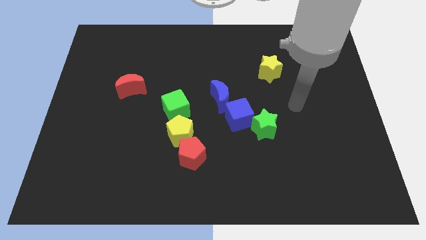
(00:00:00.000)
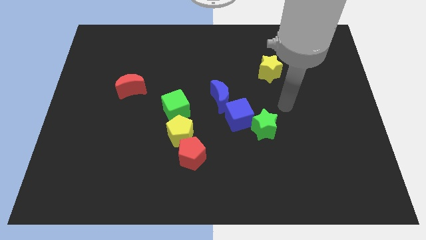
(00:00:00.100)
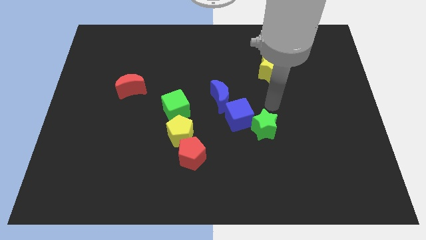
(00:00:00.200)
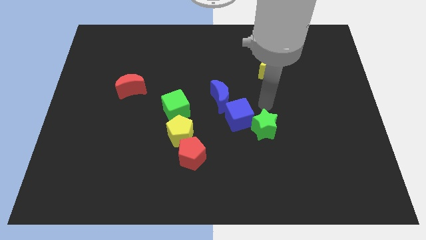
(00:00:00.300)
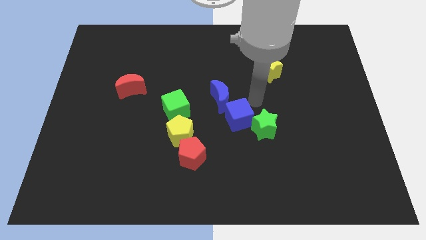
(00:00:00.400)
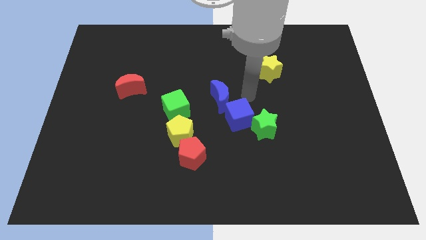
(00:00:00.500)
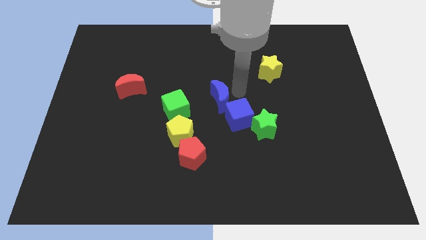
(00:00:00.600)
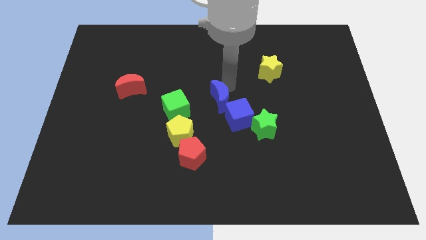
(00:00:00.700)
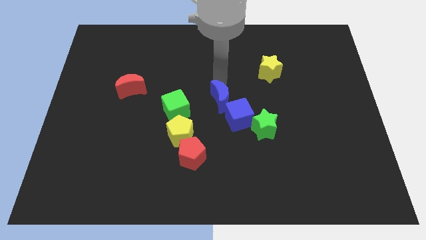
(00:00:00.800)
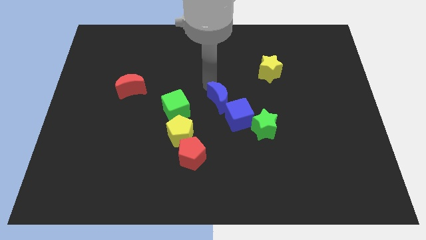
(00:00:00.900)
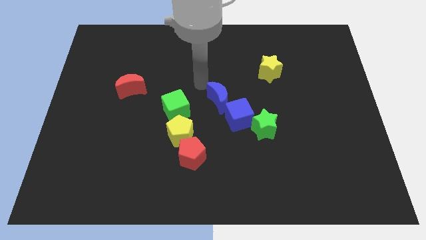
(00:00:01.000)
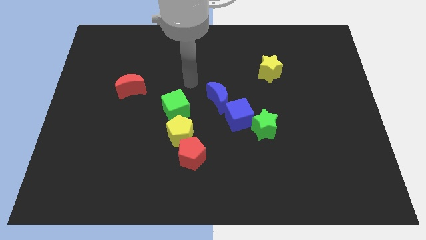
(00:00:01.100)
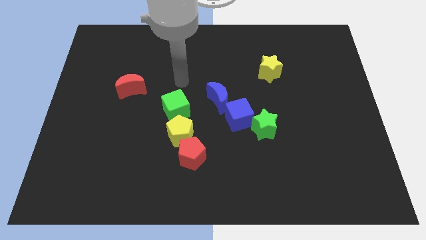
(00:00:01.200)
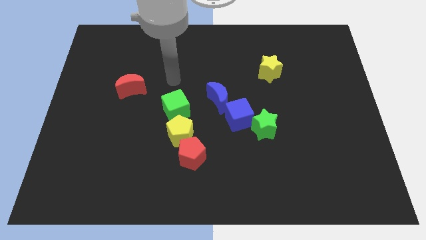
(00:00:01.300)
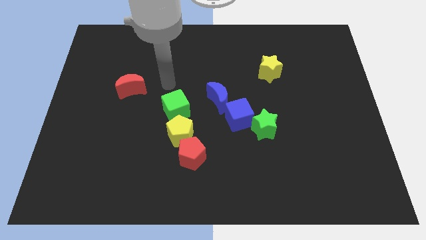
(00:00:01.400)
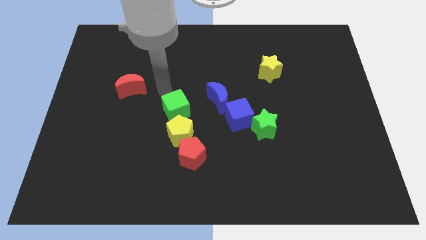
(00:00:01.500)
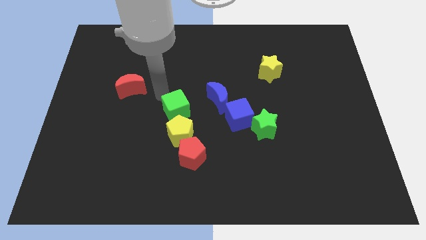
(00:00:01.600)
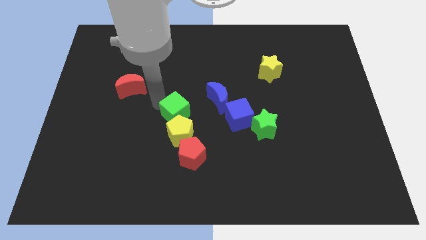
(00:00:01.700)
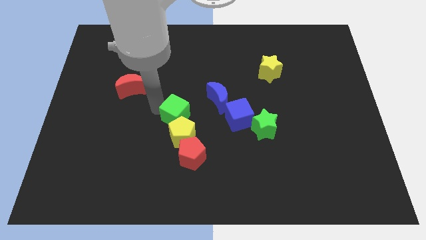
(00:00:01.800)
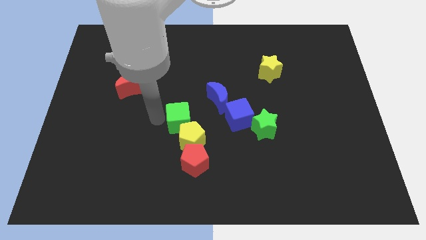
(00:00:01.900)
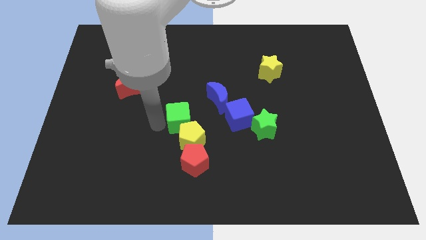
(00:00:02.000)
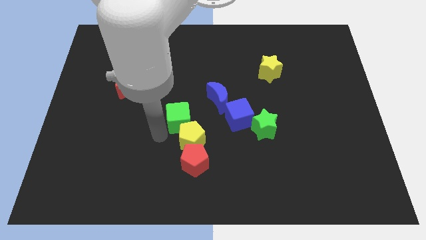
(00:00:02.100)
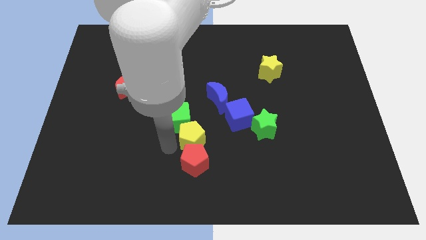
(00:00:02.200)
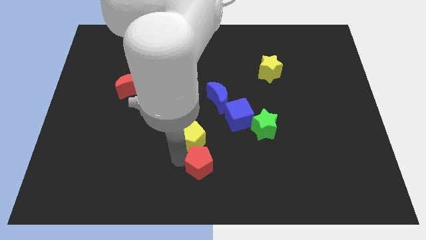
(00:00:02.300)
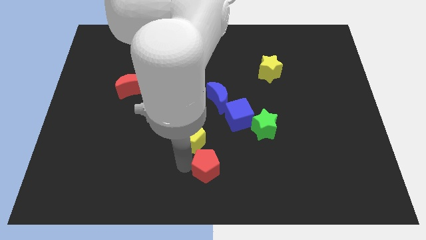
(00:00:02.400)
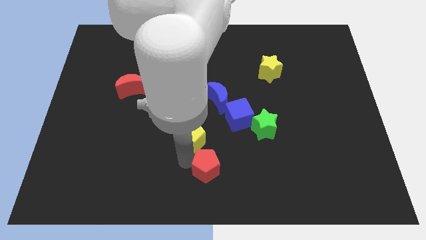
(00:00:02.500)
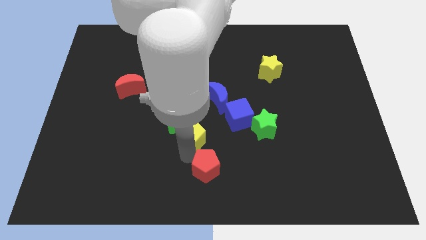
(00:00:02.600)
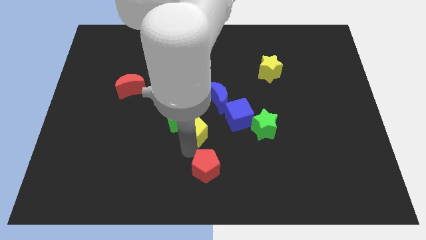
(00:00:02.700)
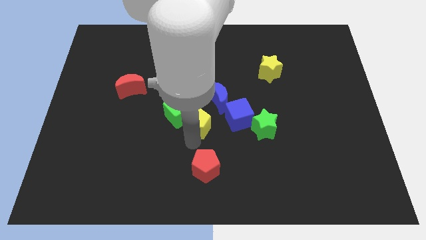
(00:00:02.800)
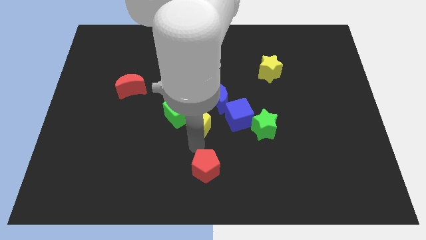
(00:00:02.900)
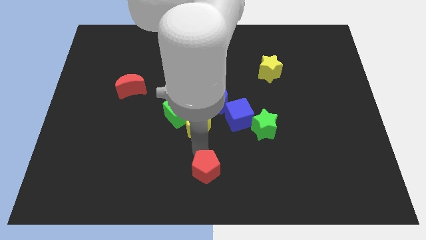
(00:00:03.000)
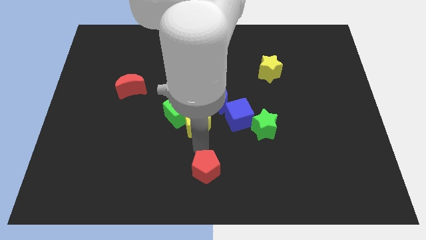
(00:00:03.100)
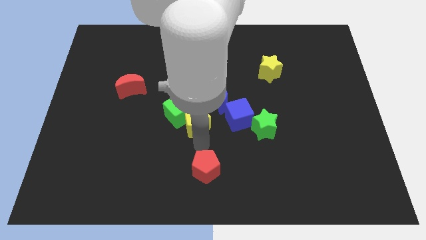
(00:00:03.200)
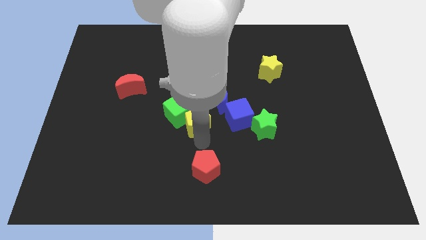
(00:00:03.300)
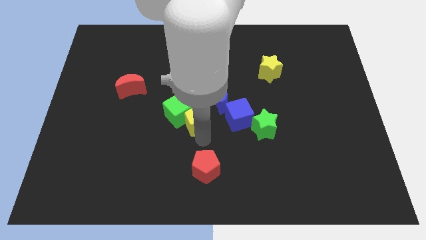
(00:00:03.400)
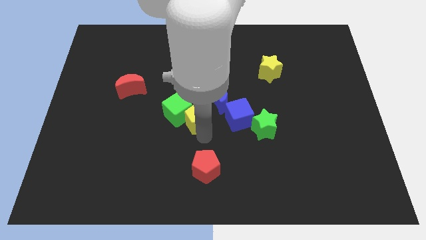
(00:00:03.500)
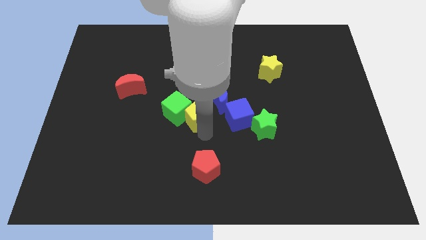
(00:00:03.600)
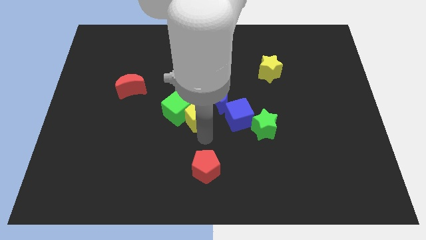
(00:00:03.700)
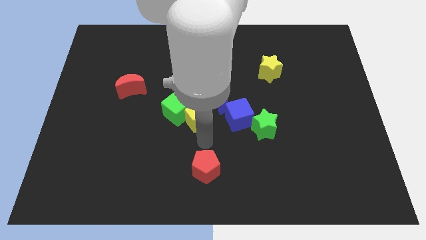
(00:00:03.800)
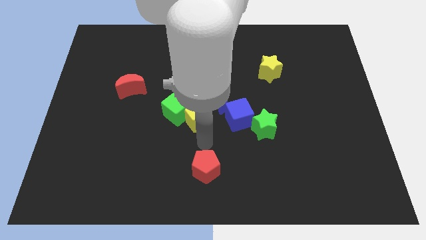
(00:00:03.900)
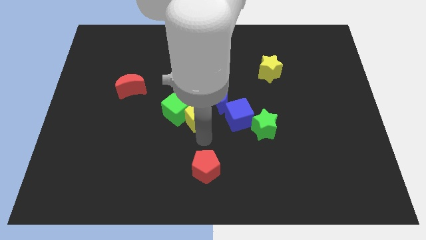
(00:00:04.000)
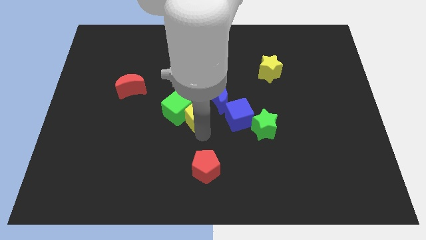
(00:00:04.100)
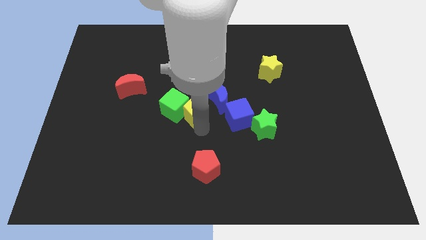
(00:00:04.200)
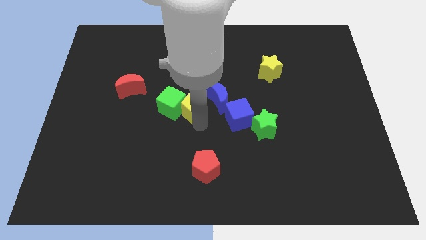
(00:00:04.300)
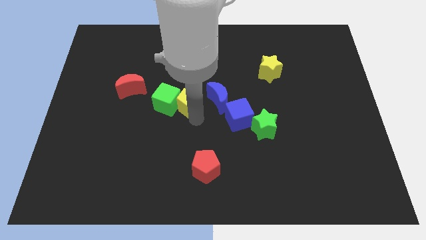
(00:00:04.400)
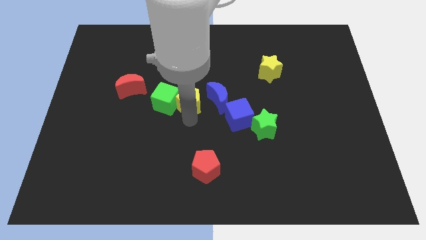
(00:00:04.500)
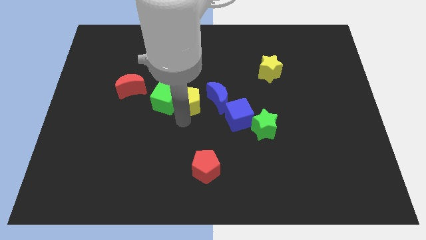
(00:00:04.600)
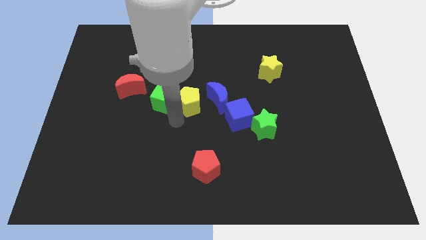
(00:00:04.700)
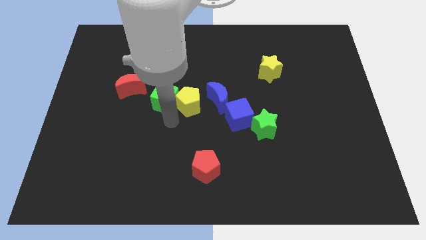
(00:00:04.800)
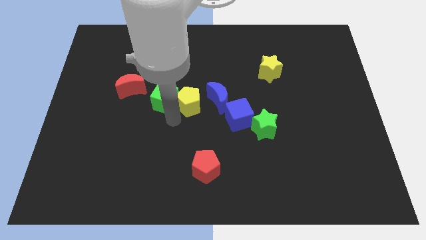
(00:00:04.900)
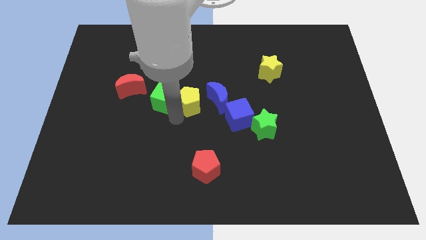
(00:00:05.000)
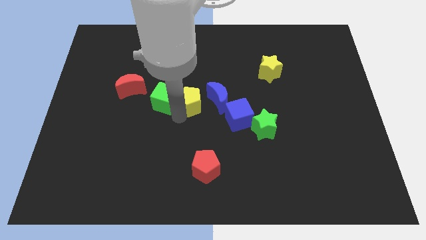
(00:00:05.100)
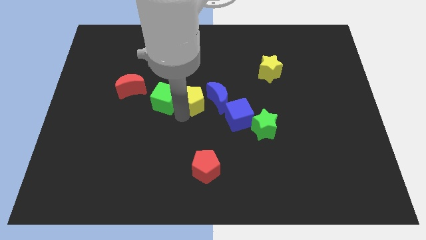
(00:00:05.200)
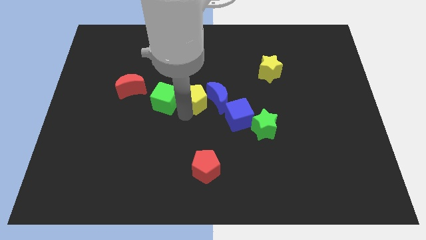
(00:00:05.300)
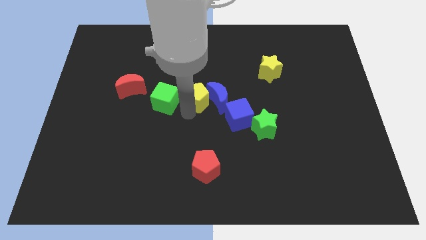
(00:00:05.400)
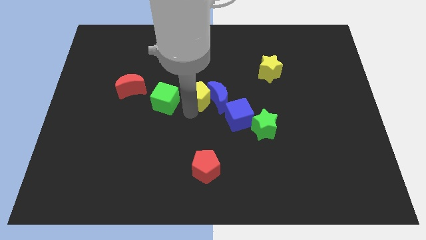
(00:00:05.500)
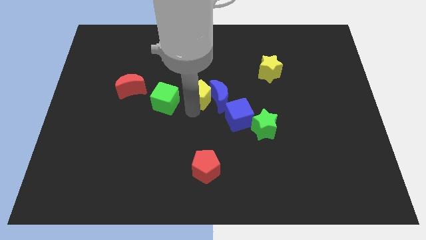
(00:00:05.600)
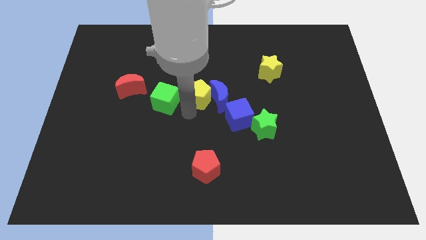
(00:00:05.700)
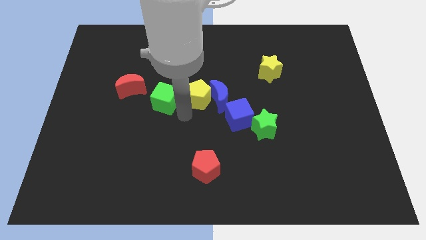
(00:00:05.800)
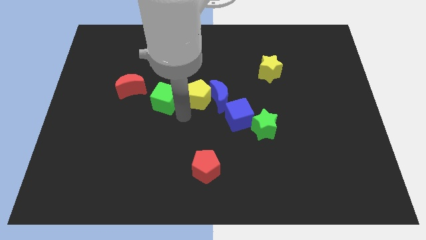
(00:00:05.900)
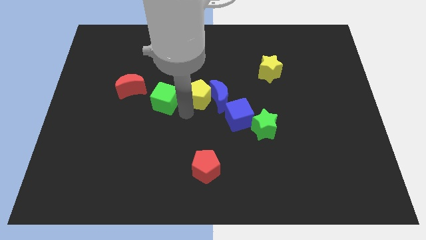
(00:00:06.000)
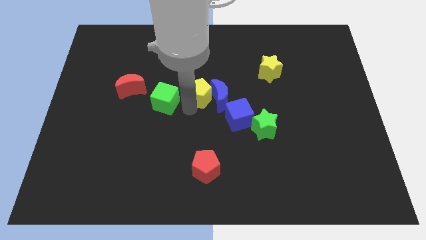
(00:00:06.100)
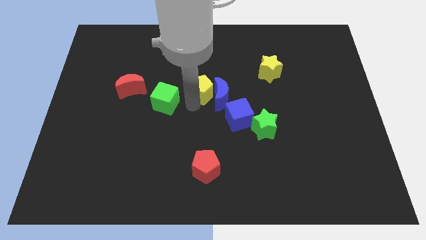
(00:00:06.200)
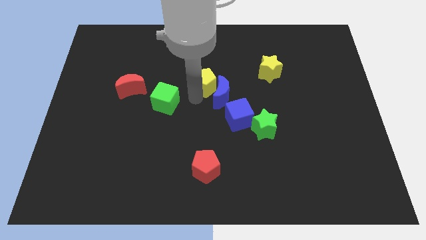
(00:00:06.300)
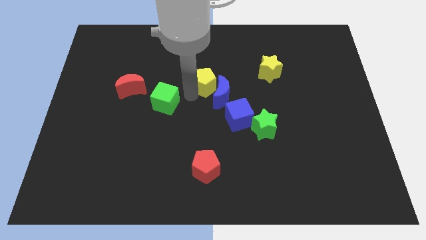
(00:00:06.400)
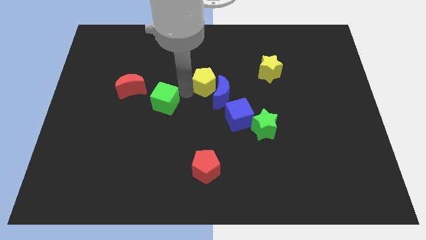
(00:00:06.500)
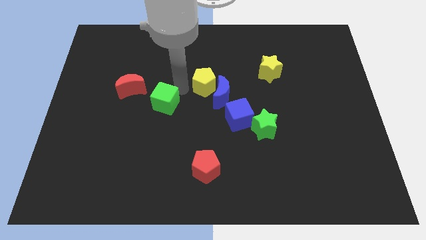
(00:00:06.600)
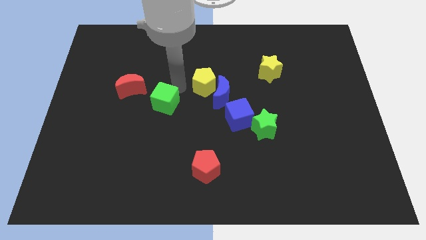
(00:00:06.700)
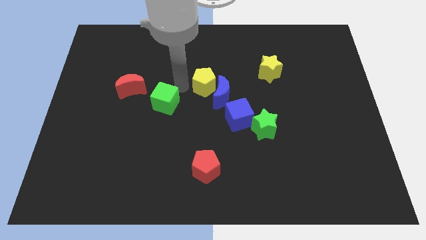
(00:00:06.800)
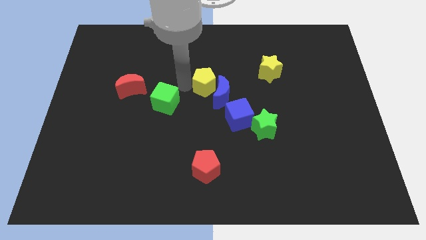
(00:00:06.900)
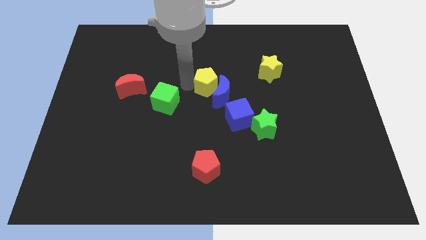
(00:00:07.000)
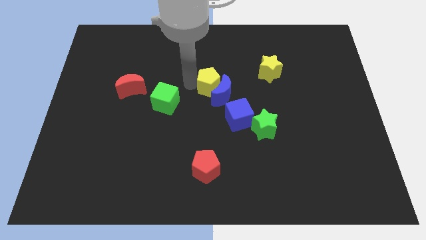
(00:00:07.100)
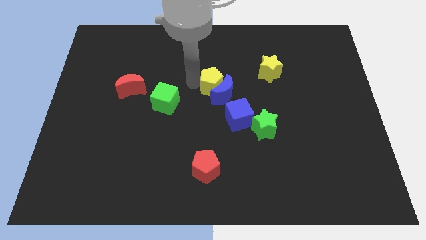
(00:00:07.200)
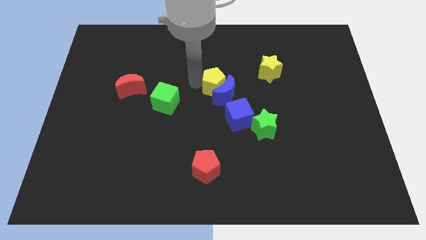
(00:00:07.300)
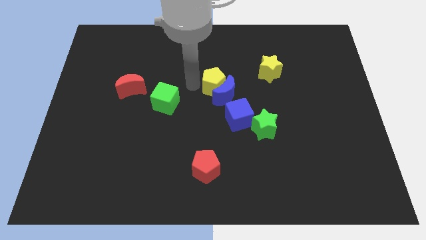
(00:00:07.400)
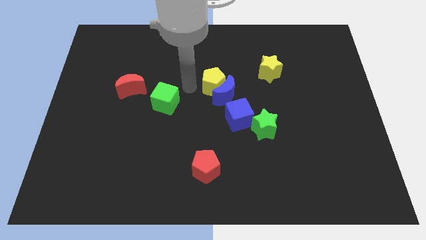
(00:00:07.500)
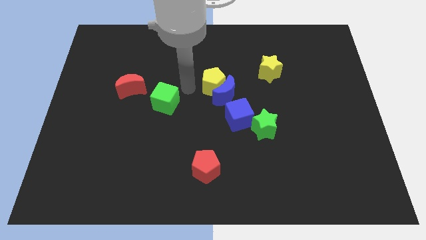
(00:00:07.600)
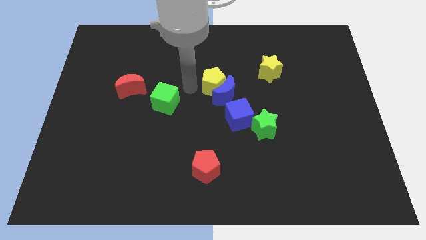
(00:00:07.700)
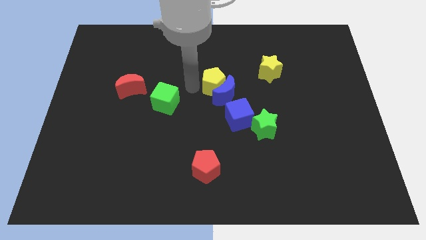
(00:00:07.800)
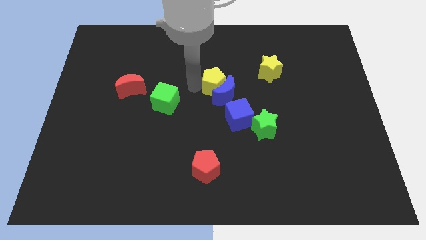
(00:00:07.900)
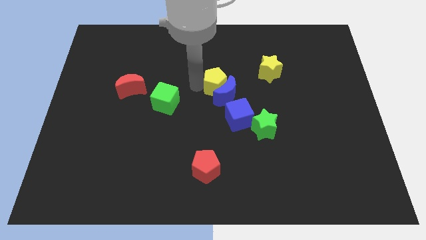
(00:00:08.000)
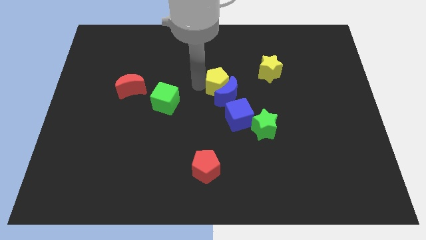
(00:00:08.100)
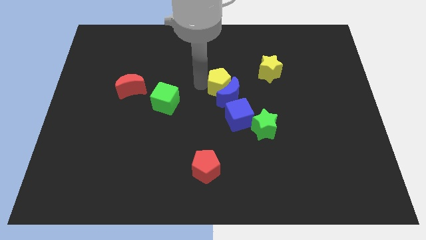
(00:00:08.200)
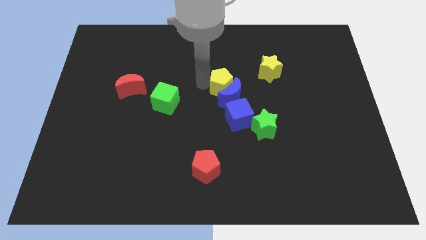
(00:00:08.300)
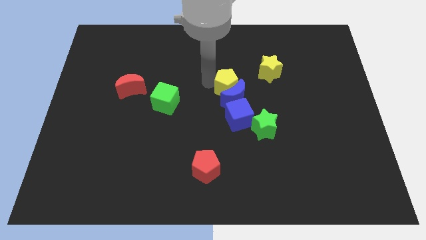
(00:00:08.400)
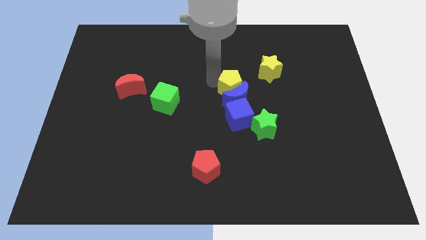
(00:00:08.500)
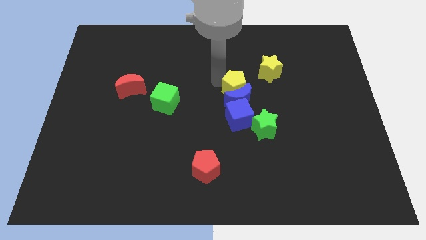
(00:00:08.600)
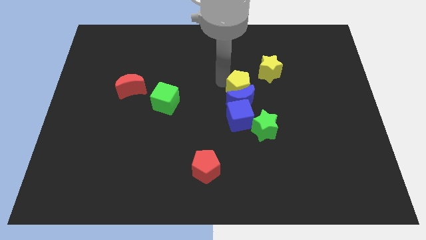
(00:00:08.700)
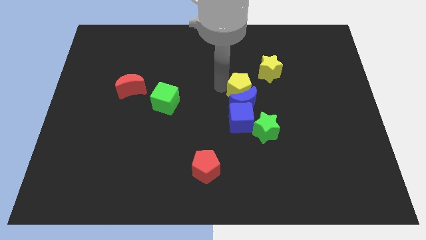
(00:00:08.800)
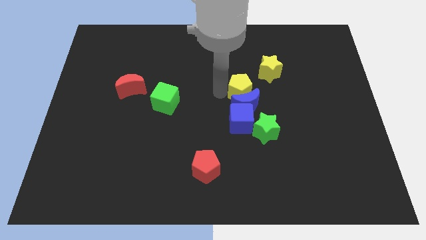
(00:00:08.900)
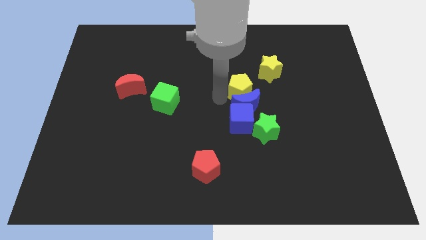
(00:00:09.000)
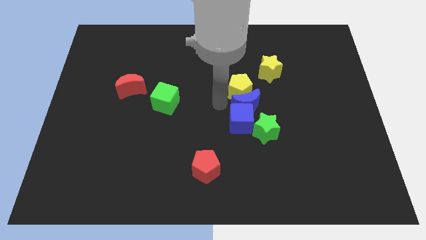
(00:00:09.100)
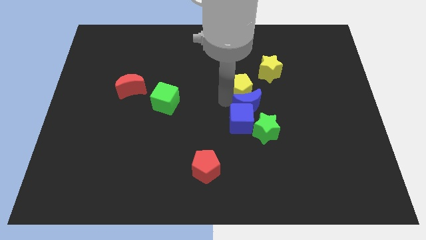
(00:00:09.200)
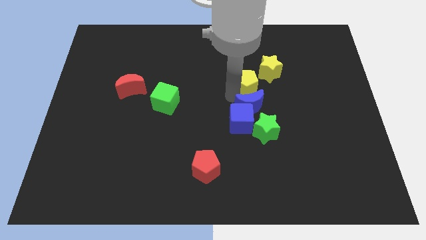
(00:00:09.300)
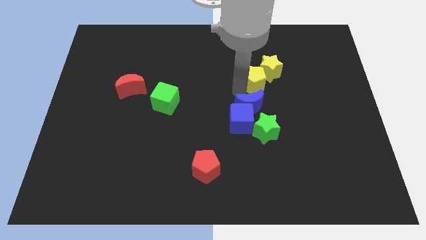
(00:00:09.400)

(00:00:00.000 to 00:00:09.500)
slide the yellow pentagon to the yellow star
